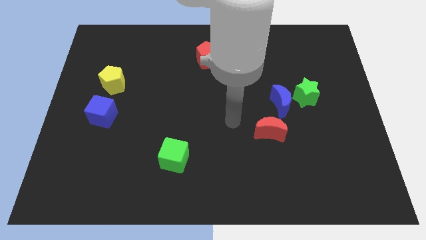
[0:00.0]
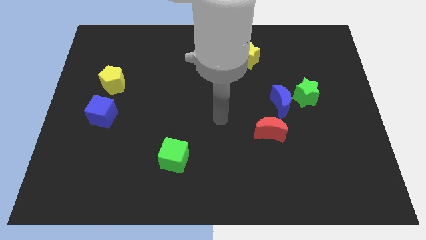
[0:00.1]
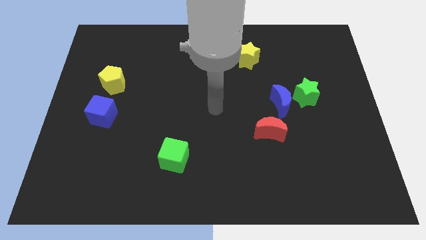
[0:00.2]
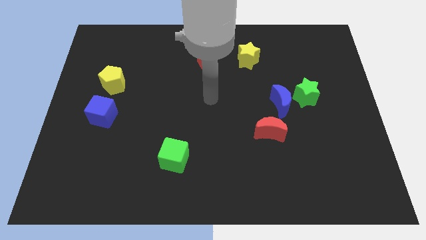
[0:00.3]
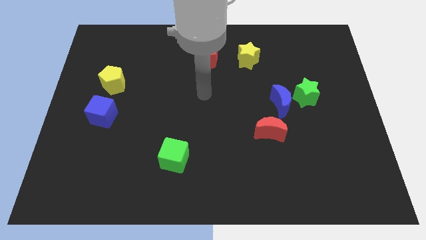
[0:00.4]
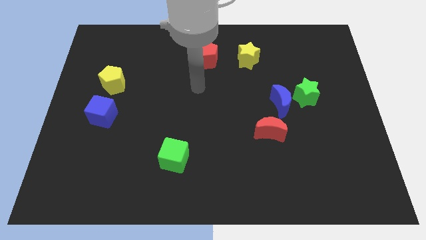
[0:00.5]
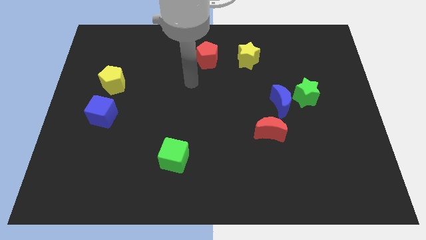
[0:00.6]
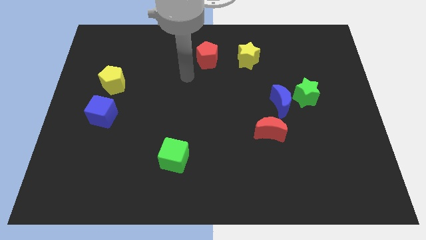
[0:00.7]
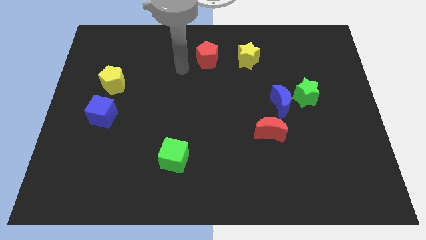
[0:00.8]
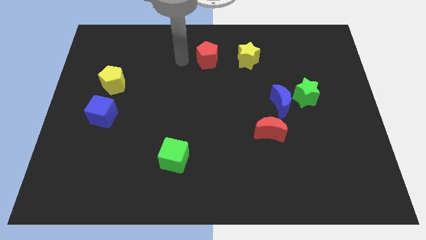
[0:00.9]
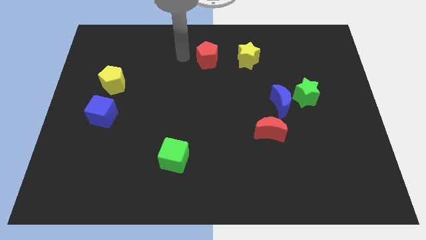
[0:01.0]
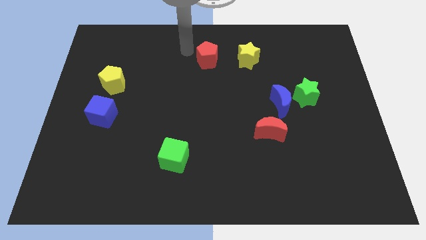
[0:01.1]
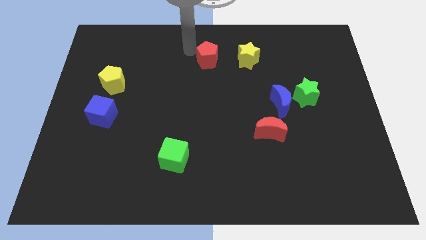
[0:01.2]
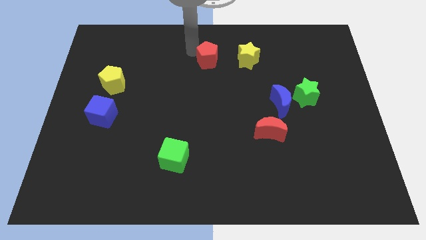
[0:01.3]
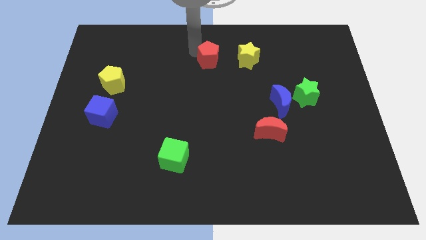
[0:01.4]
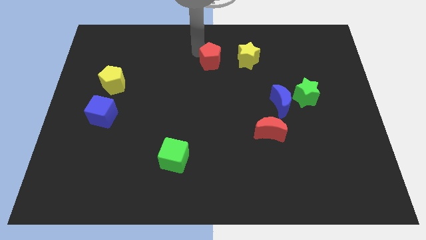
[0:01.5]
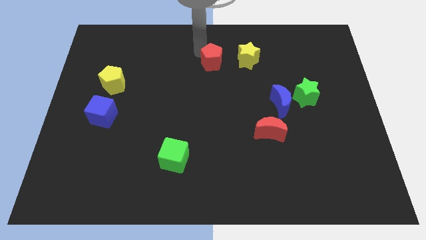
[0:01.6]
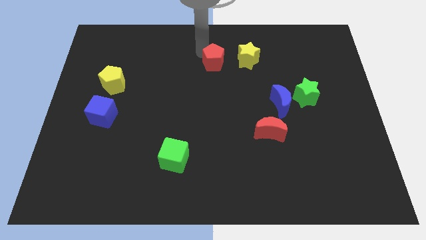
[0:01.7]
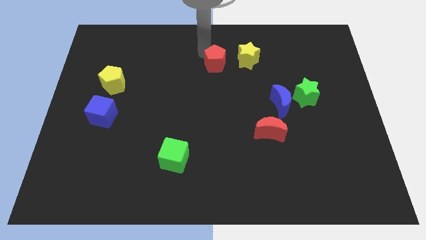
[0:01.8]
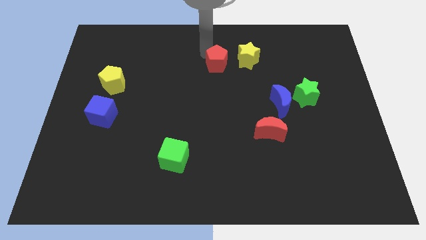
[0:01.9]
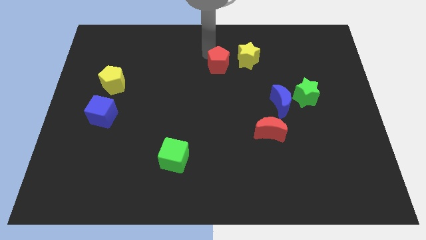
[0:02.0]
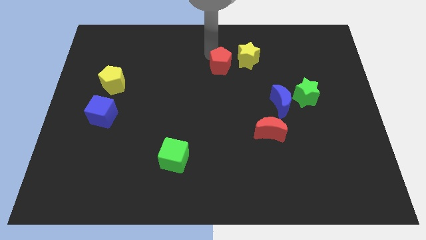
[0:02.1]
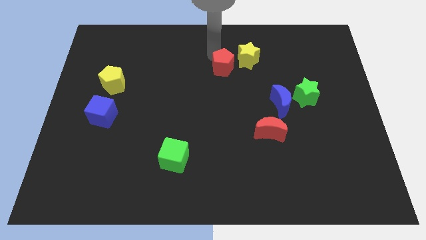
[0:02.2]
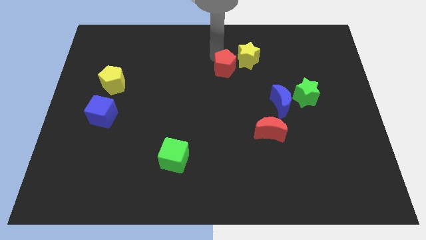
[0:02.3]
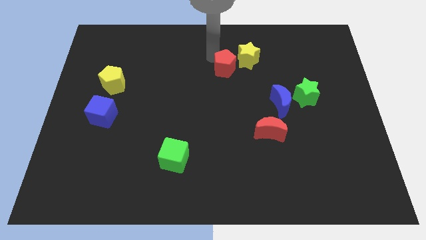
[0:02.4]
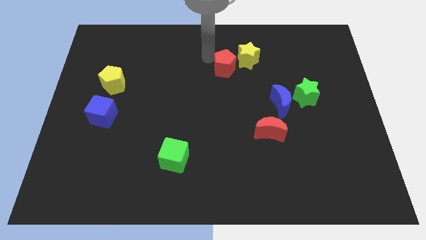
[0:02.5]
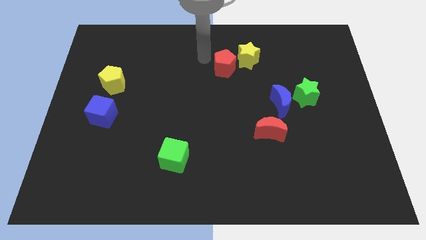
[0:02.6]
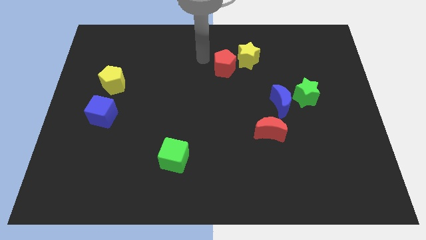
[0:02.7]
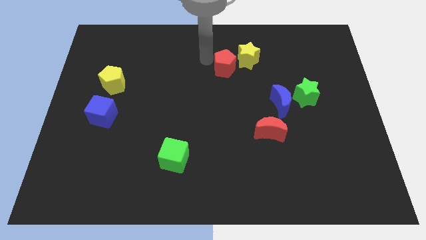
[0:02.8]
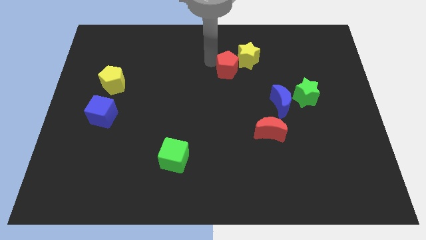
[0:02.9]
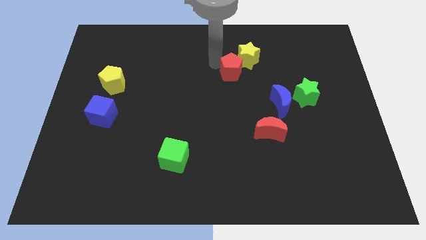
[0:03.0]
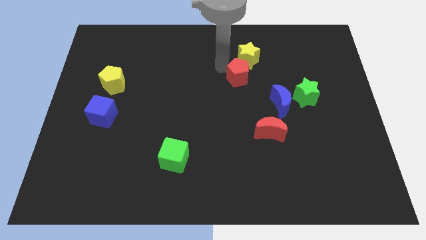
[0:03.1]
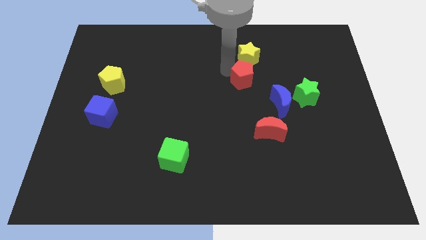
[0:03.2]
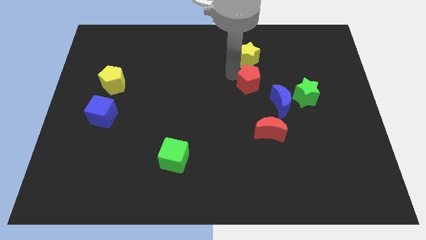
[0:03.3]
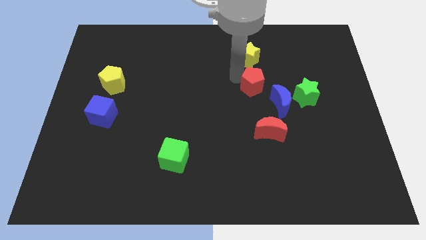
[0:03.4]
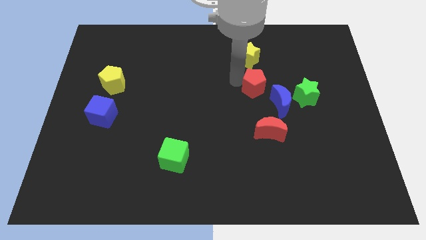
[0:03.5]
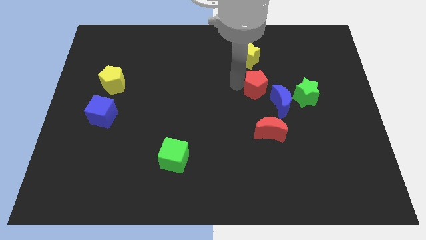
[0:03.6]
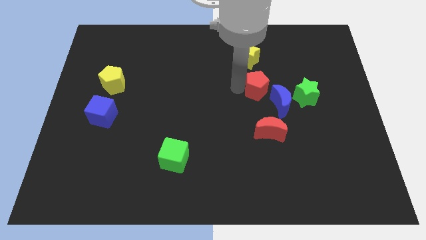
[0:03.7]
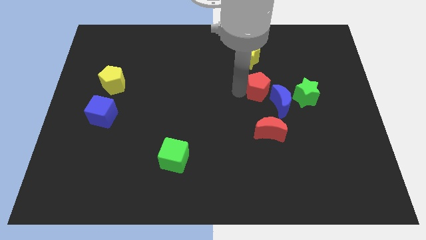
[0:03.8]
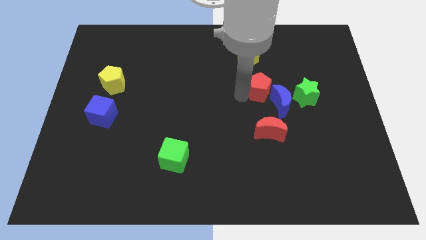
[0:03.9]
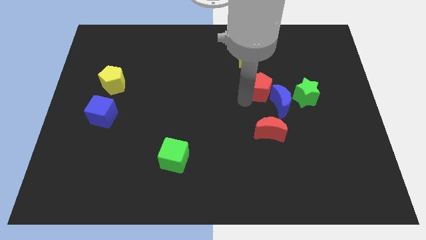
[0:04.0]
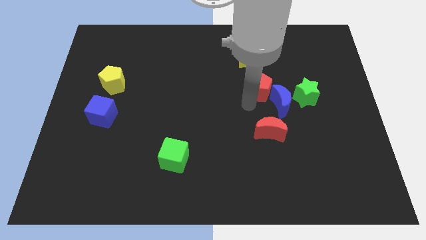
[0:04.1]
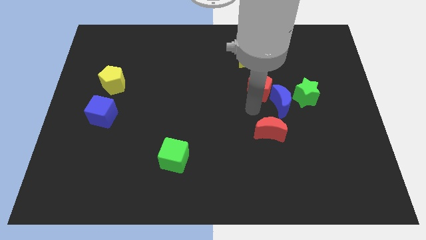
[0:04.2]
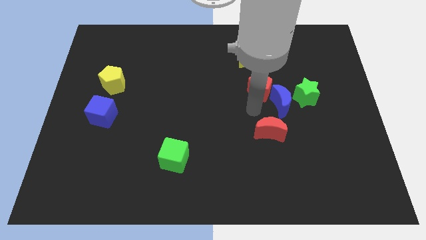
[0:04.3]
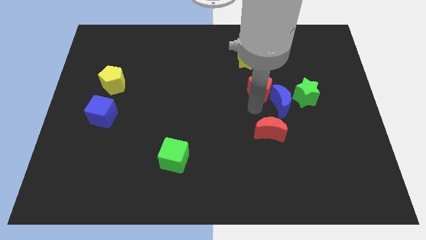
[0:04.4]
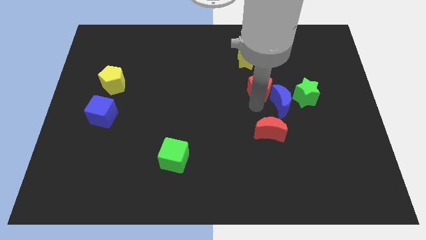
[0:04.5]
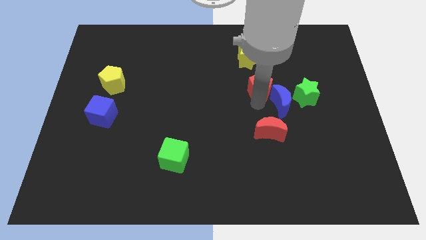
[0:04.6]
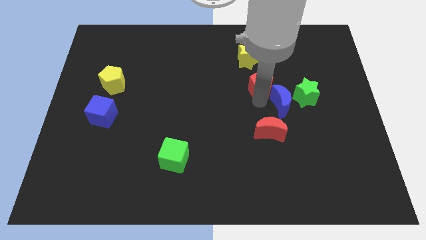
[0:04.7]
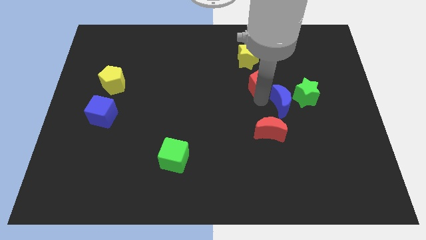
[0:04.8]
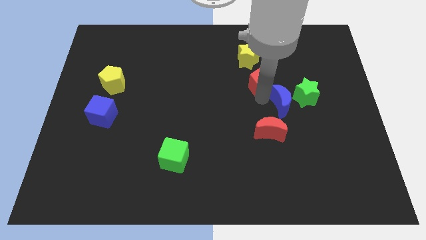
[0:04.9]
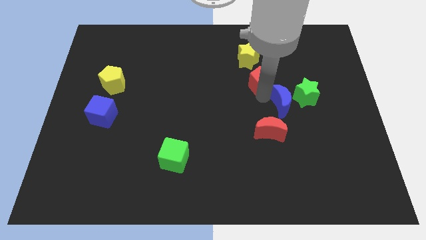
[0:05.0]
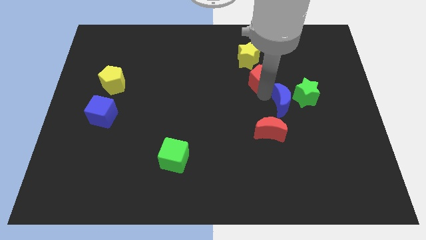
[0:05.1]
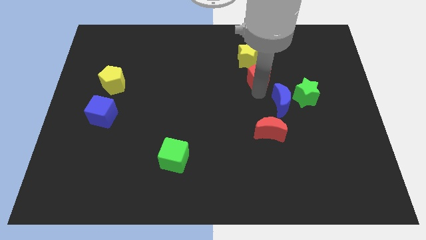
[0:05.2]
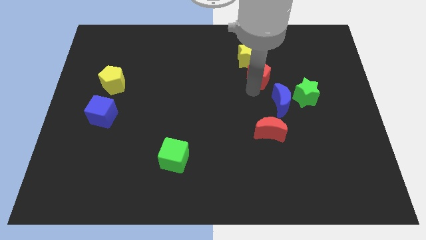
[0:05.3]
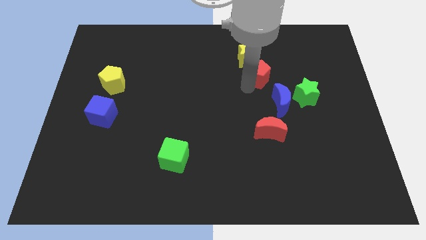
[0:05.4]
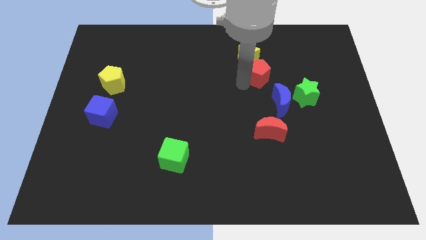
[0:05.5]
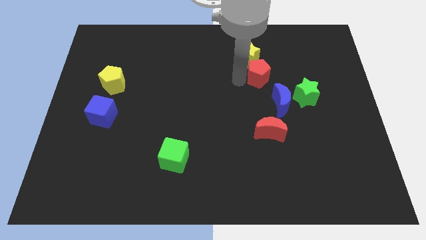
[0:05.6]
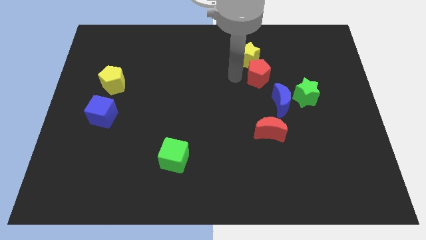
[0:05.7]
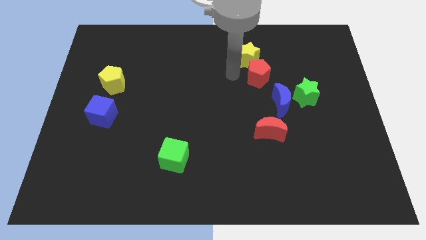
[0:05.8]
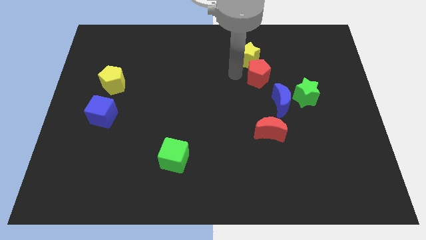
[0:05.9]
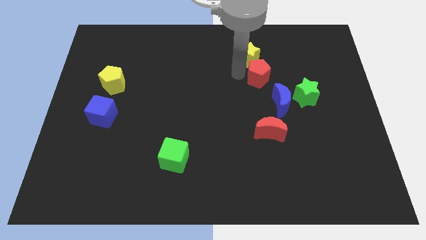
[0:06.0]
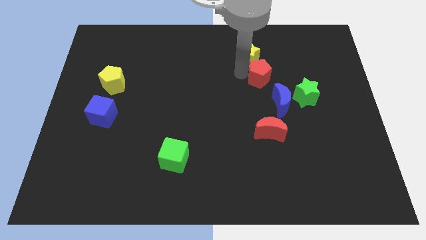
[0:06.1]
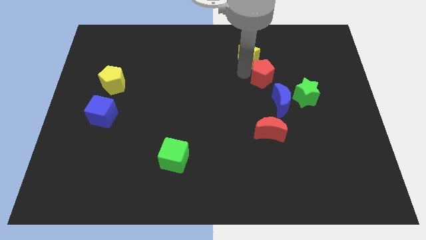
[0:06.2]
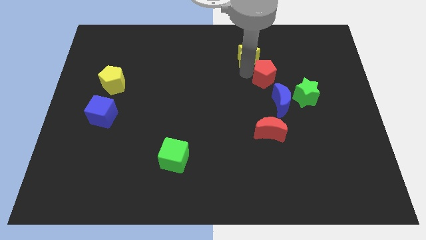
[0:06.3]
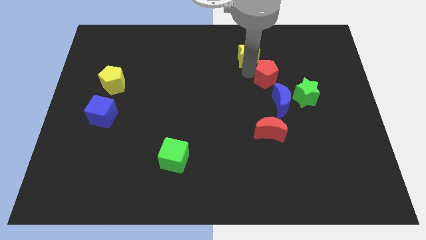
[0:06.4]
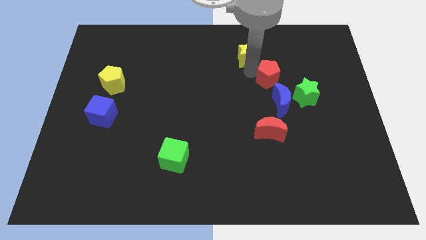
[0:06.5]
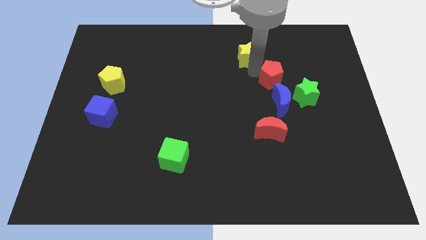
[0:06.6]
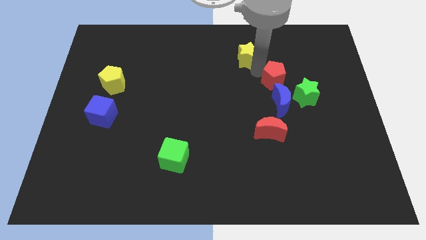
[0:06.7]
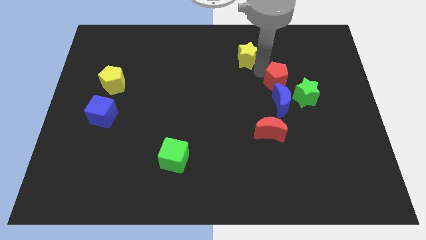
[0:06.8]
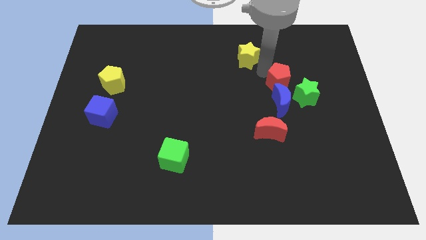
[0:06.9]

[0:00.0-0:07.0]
put the red pentagon diagonally up and to the right of the blue moon
